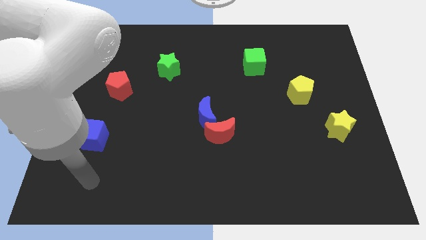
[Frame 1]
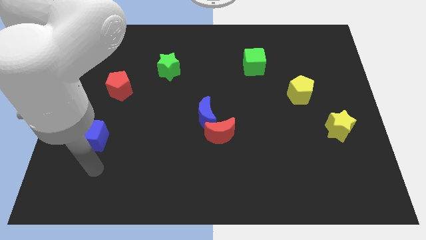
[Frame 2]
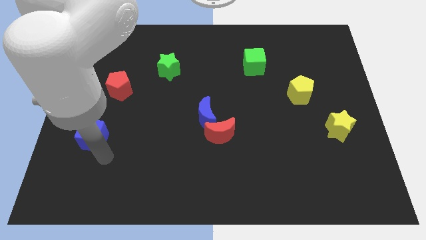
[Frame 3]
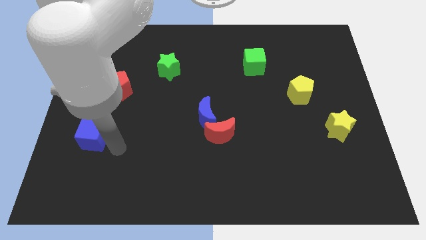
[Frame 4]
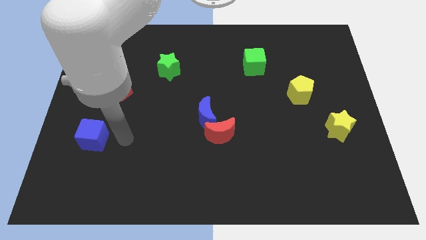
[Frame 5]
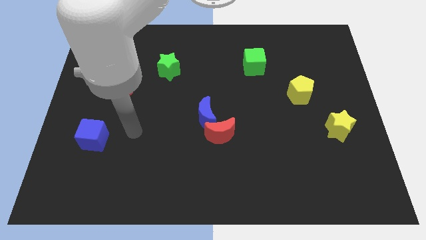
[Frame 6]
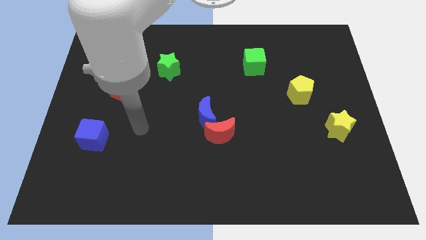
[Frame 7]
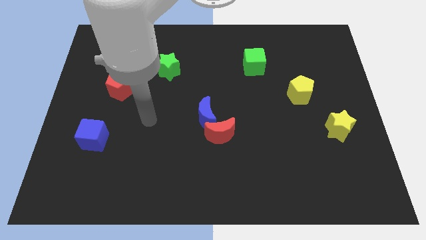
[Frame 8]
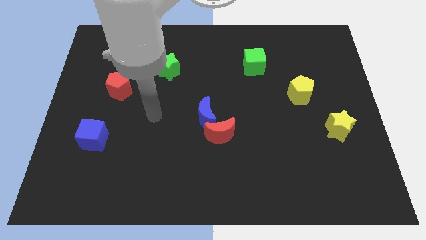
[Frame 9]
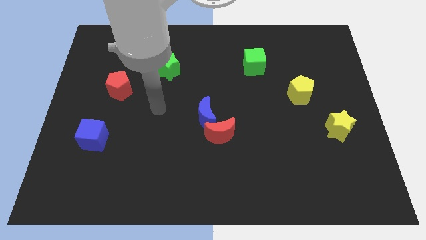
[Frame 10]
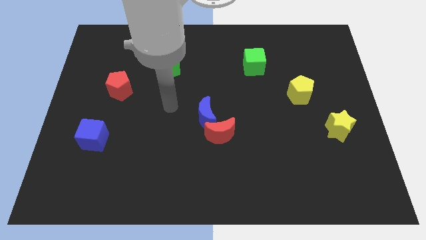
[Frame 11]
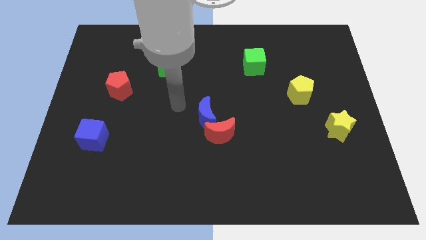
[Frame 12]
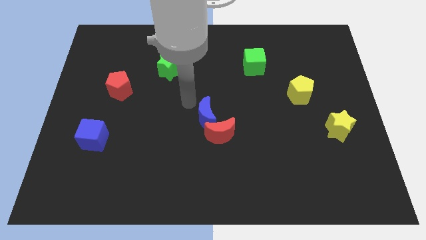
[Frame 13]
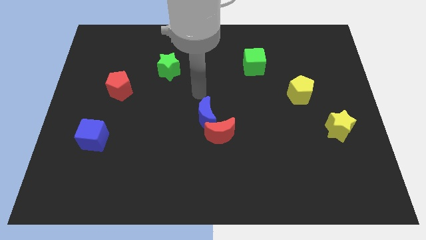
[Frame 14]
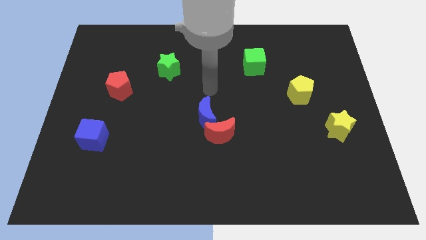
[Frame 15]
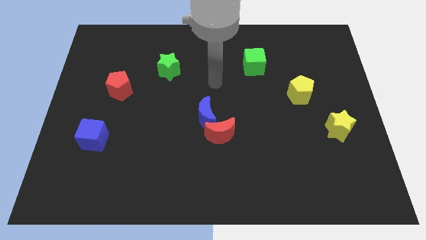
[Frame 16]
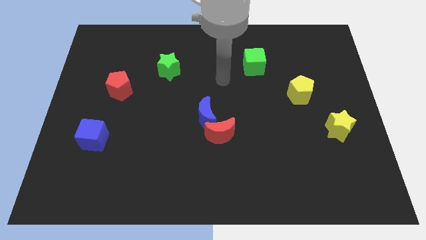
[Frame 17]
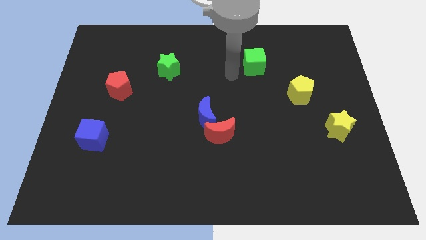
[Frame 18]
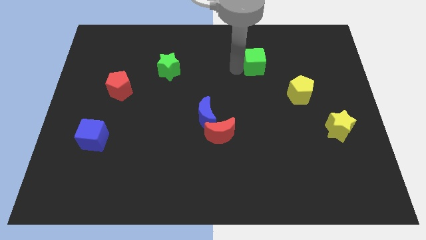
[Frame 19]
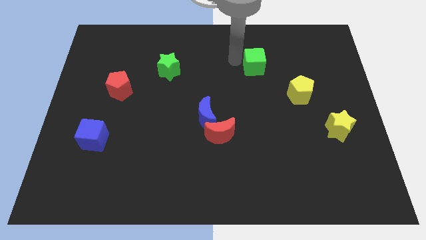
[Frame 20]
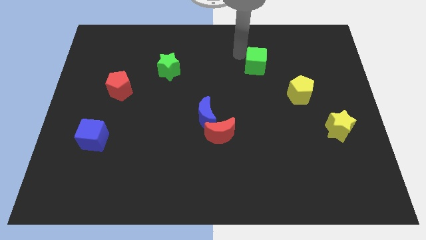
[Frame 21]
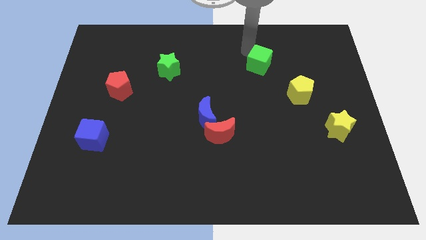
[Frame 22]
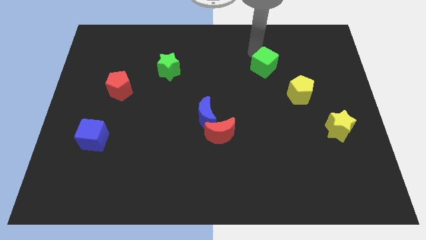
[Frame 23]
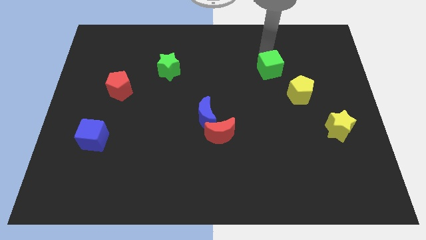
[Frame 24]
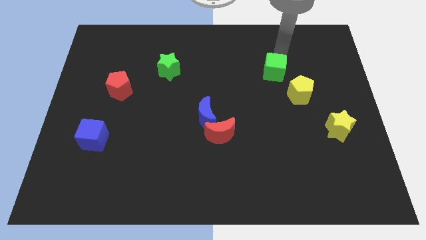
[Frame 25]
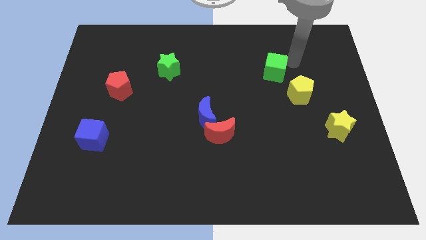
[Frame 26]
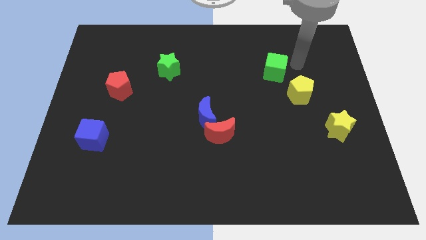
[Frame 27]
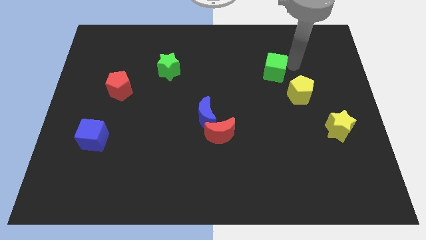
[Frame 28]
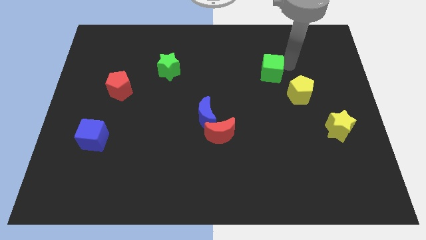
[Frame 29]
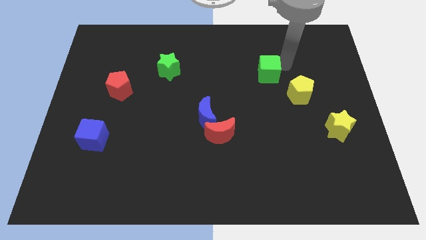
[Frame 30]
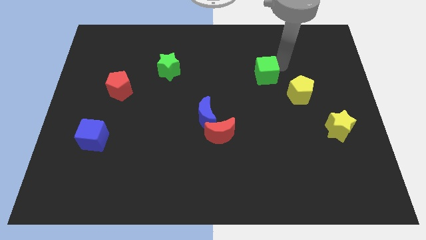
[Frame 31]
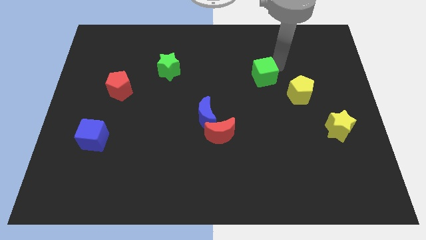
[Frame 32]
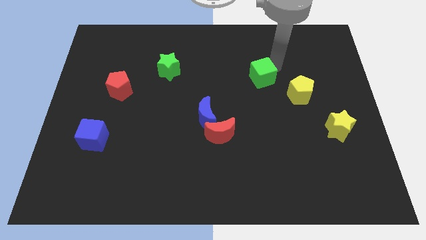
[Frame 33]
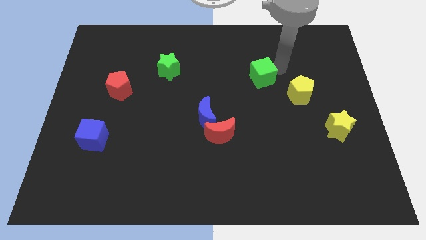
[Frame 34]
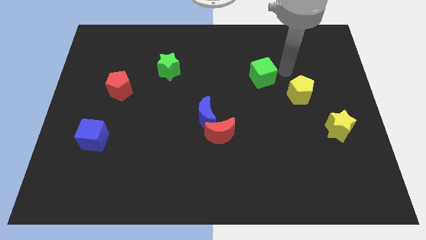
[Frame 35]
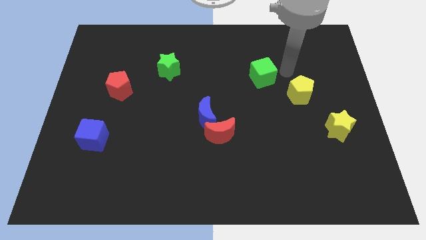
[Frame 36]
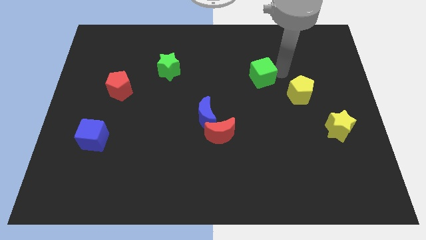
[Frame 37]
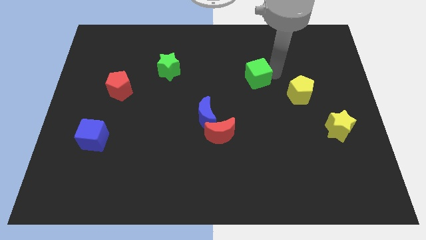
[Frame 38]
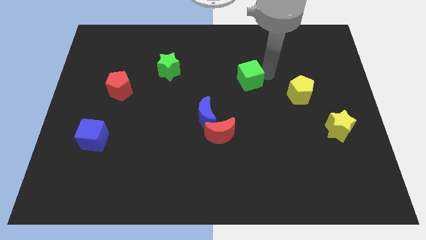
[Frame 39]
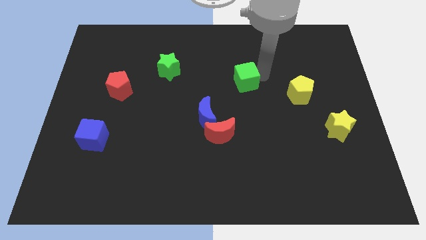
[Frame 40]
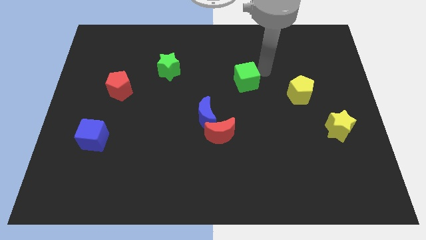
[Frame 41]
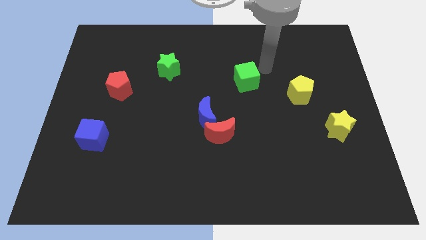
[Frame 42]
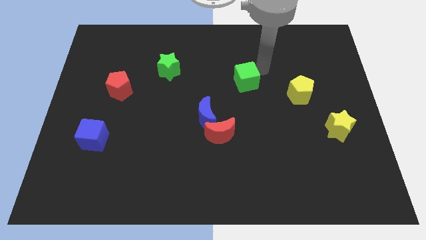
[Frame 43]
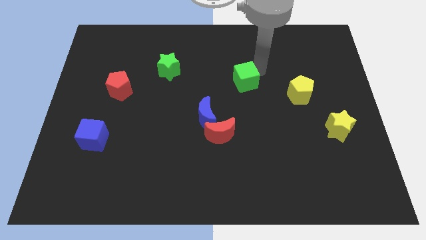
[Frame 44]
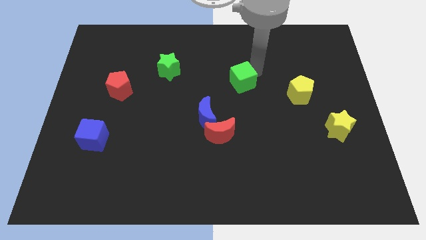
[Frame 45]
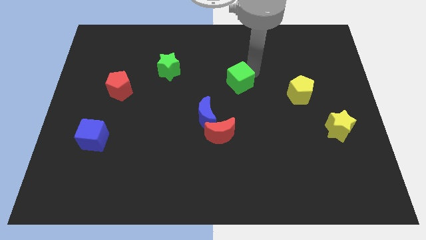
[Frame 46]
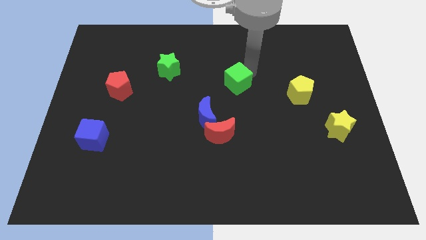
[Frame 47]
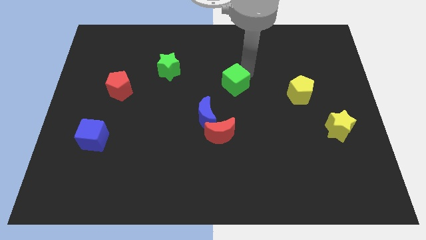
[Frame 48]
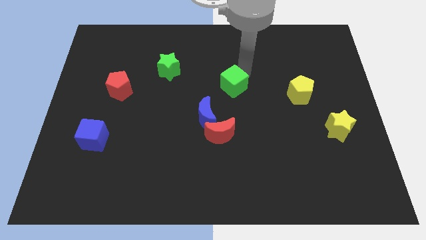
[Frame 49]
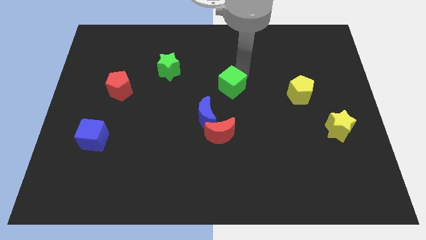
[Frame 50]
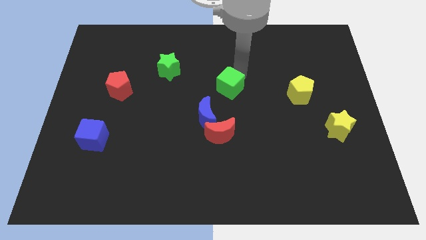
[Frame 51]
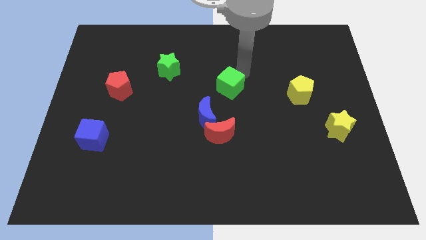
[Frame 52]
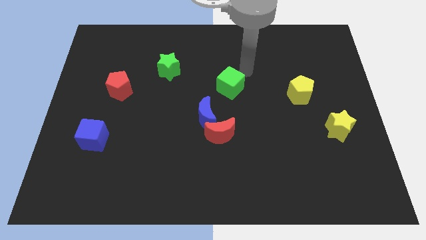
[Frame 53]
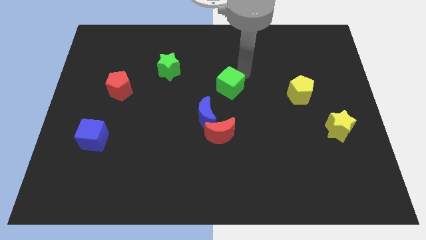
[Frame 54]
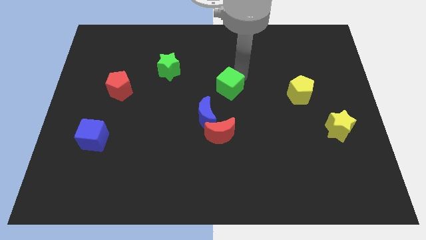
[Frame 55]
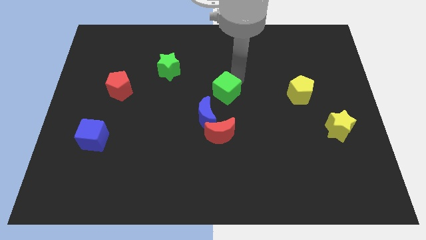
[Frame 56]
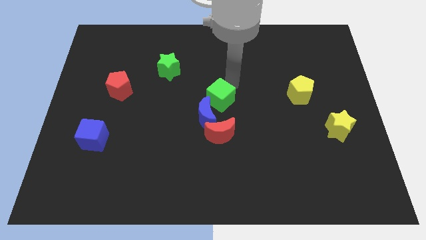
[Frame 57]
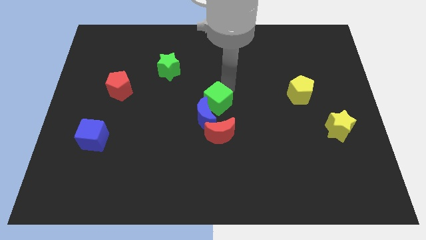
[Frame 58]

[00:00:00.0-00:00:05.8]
move the green cube close to the blue moon

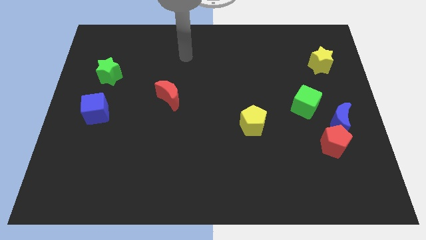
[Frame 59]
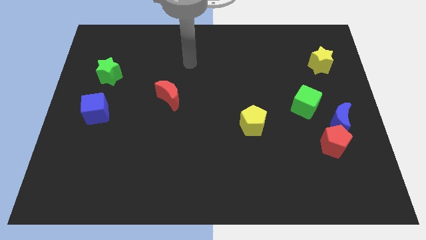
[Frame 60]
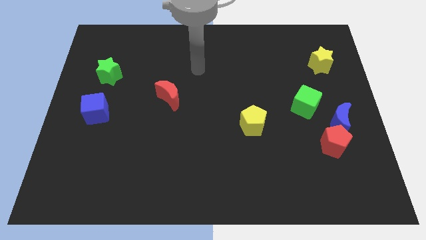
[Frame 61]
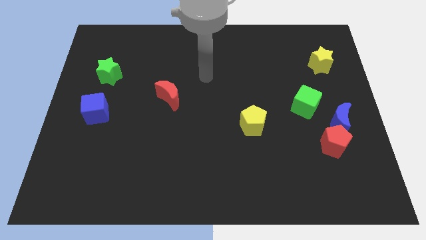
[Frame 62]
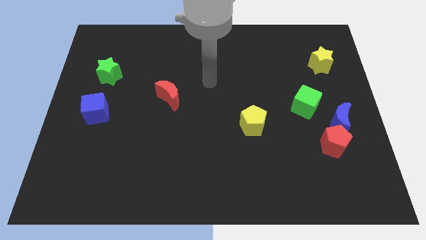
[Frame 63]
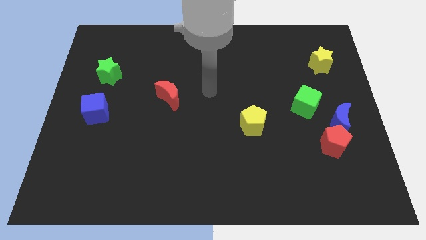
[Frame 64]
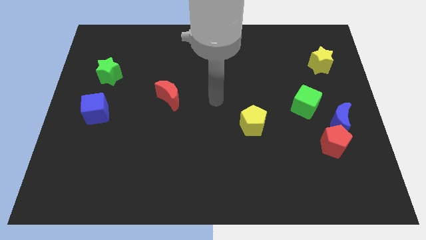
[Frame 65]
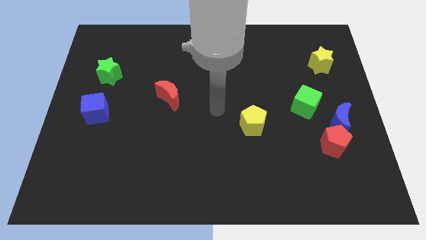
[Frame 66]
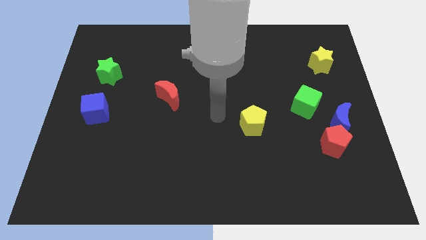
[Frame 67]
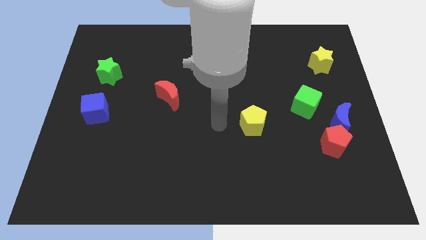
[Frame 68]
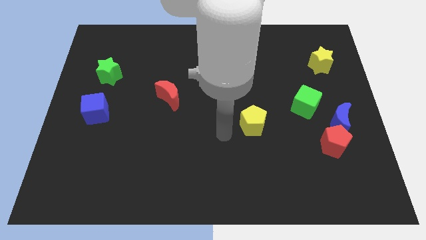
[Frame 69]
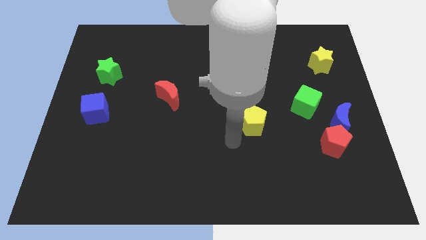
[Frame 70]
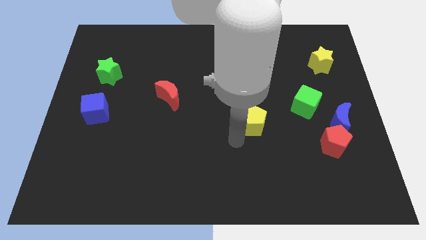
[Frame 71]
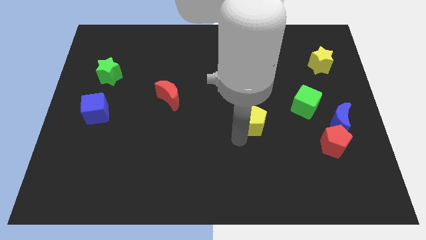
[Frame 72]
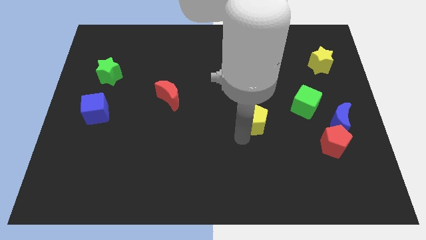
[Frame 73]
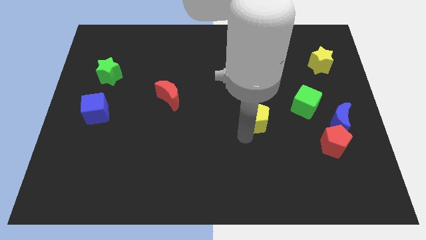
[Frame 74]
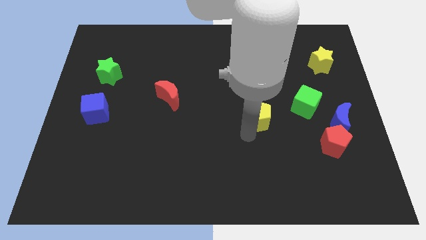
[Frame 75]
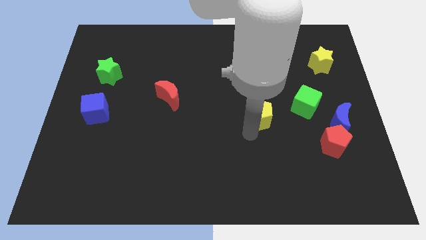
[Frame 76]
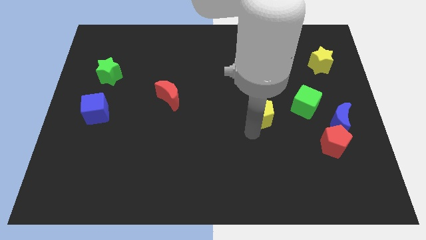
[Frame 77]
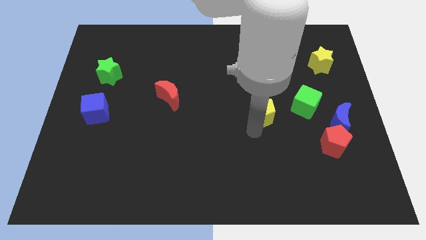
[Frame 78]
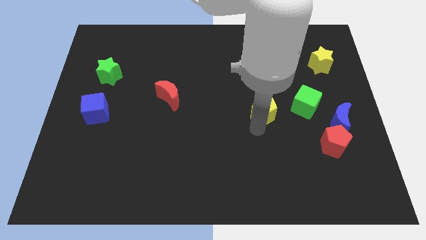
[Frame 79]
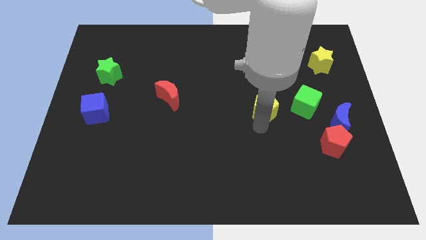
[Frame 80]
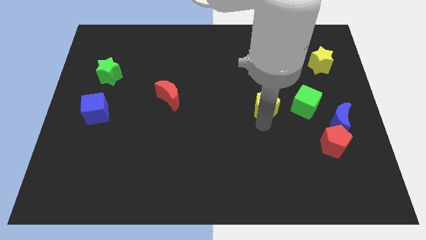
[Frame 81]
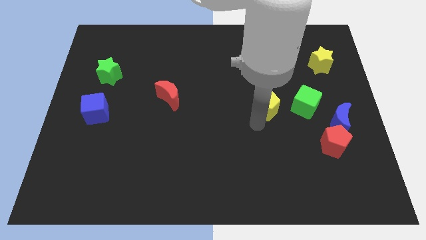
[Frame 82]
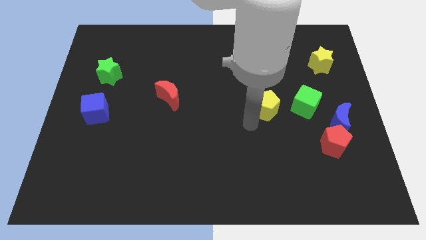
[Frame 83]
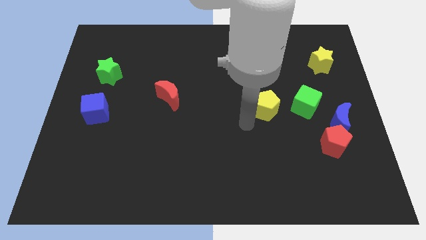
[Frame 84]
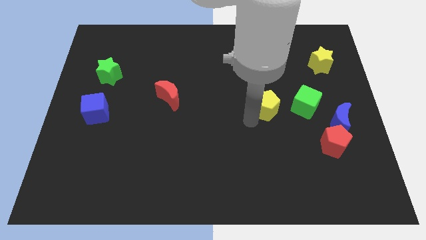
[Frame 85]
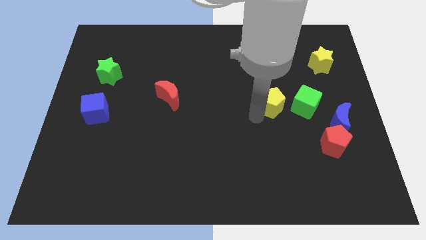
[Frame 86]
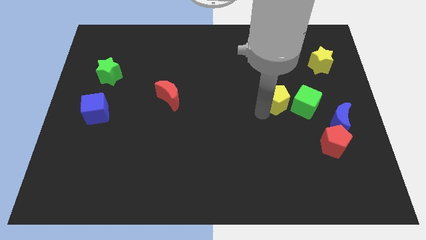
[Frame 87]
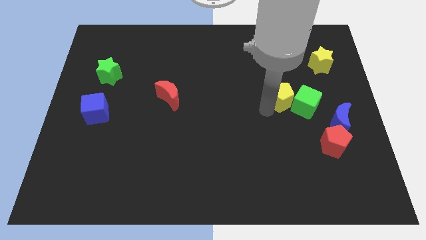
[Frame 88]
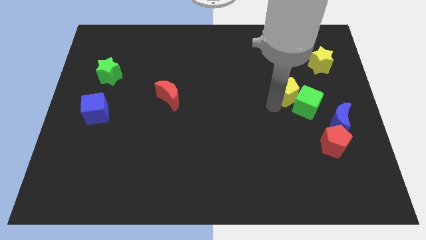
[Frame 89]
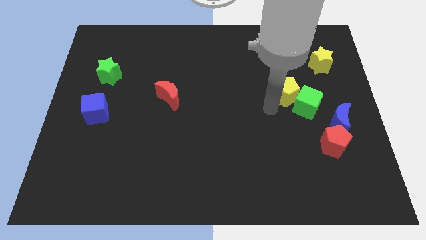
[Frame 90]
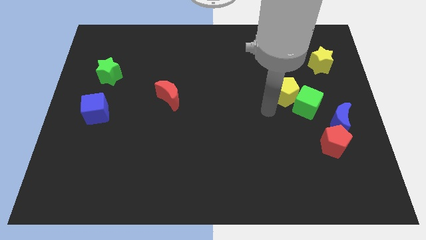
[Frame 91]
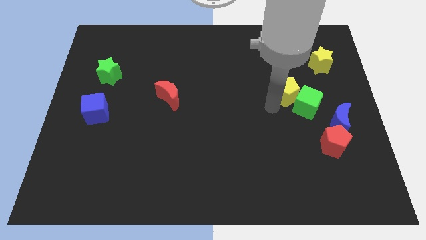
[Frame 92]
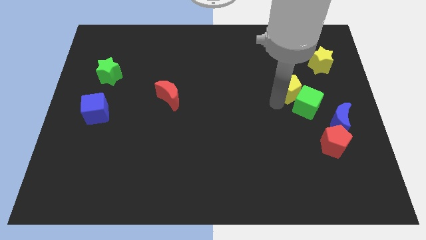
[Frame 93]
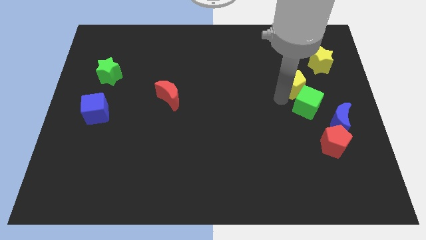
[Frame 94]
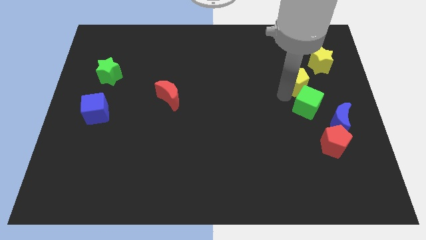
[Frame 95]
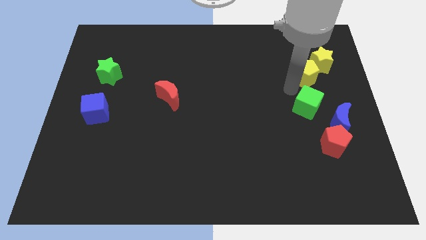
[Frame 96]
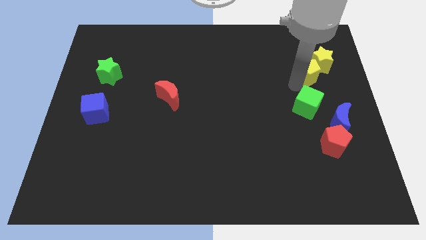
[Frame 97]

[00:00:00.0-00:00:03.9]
push the yellow pentagon towards the yellow star
